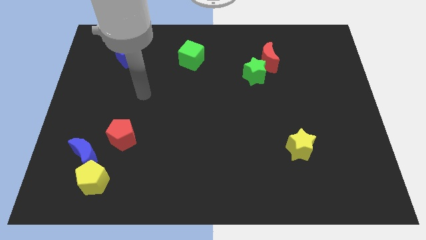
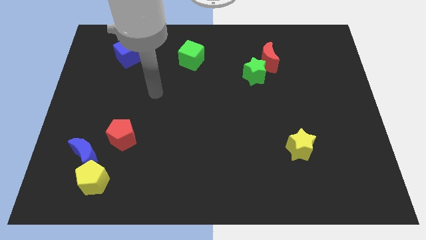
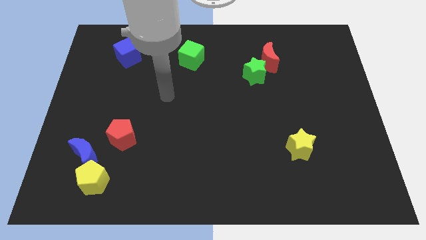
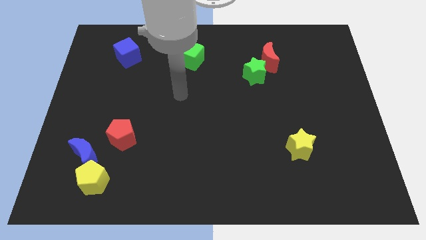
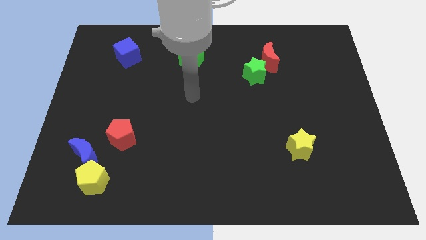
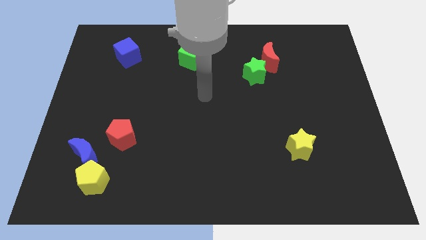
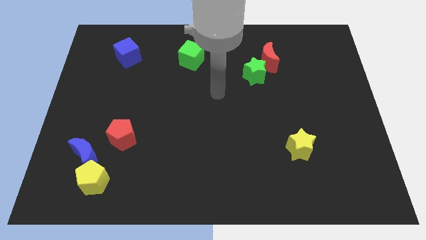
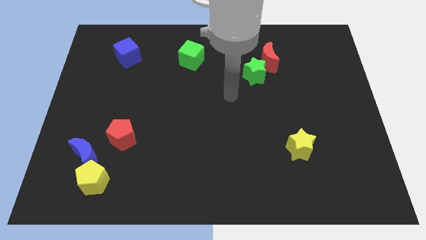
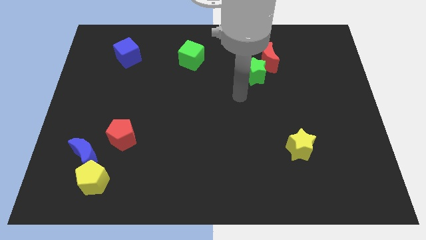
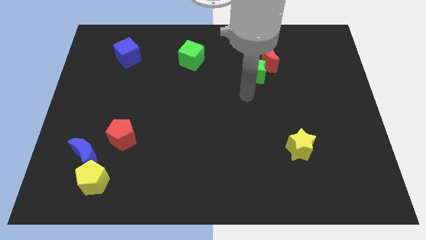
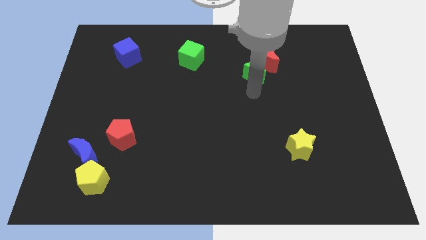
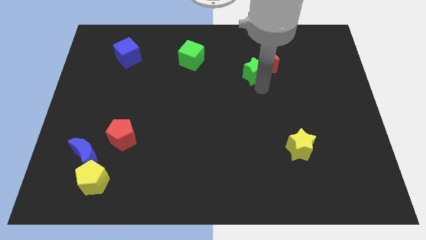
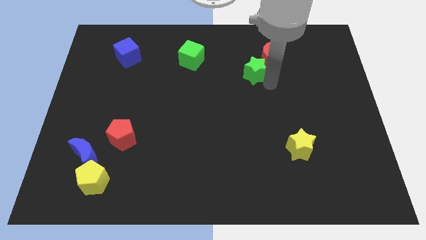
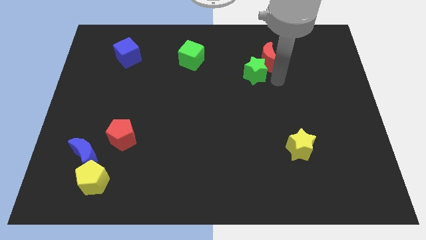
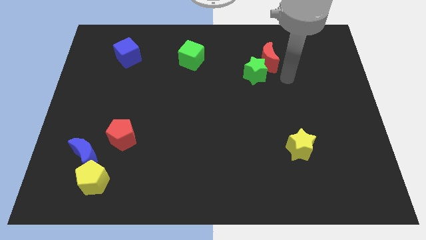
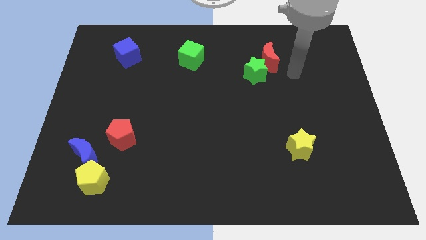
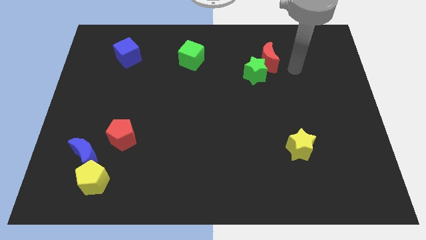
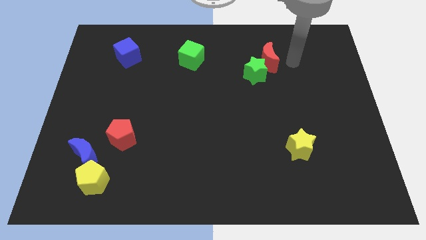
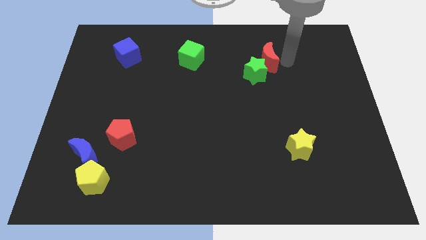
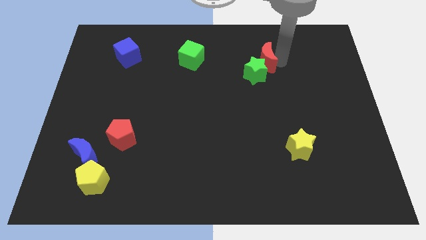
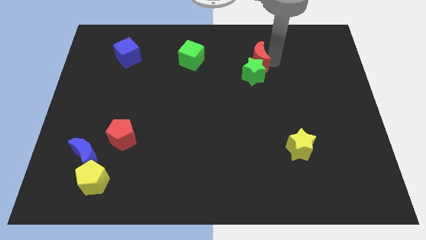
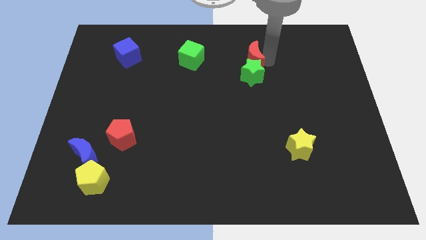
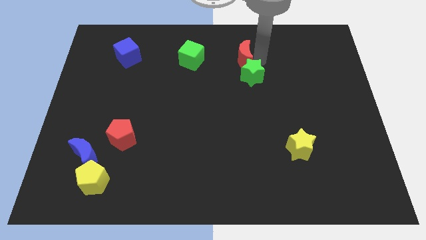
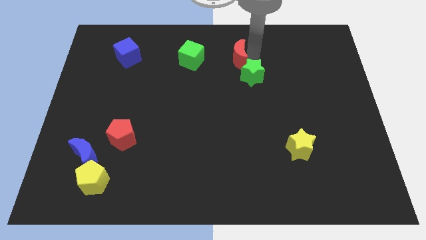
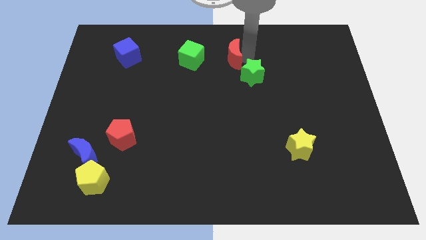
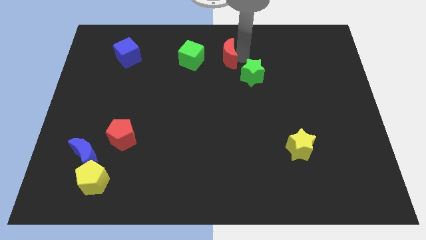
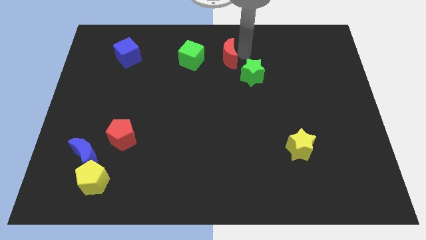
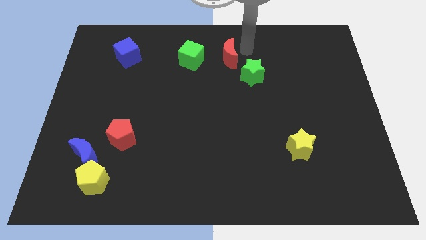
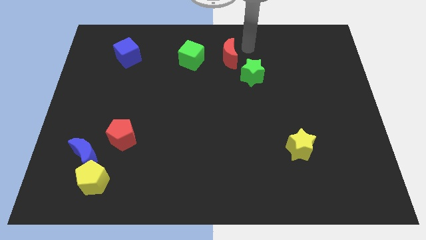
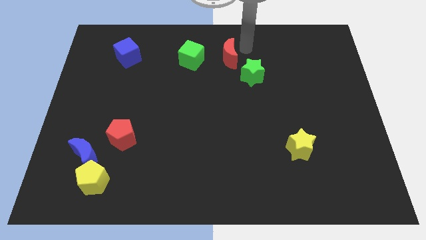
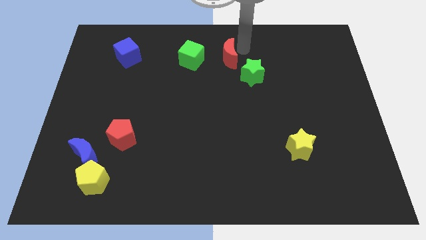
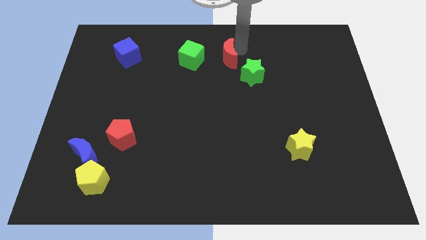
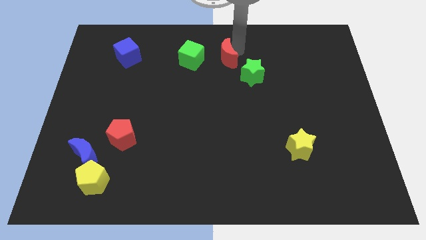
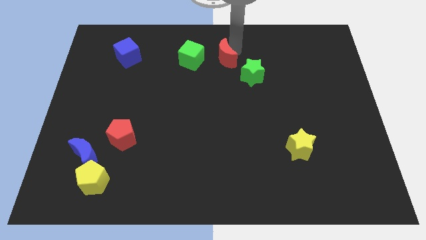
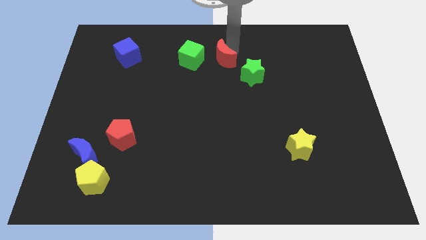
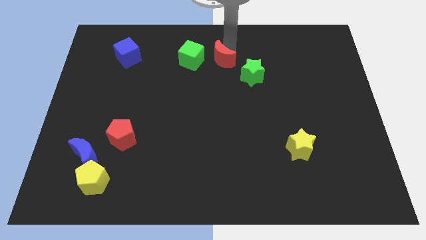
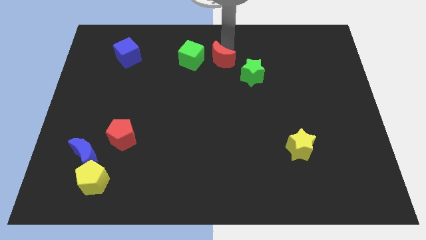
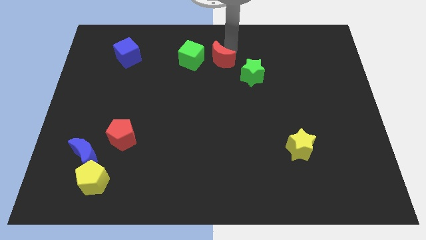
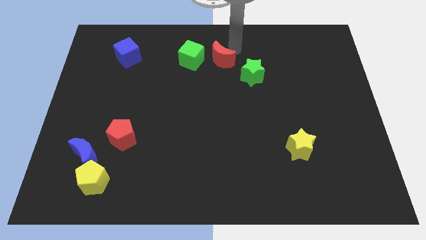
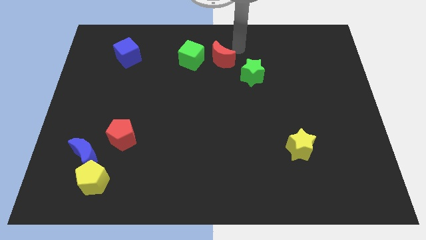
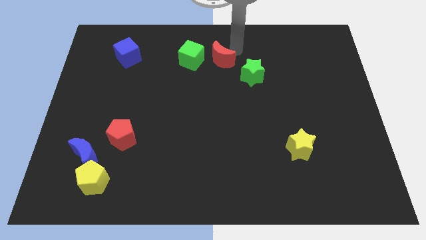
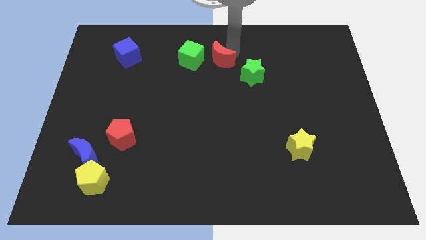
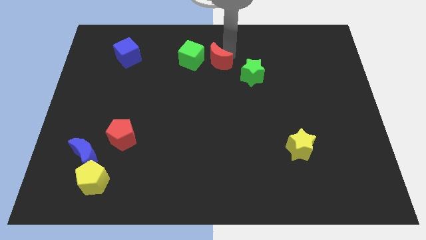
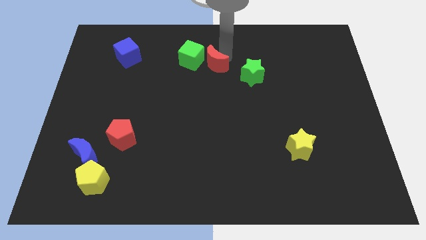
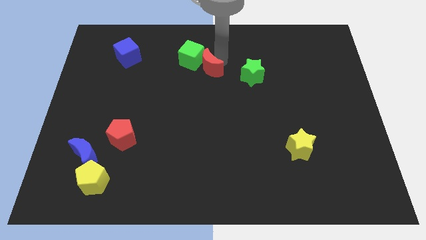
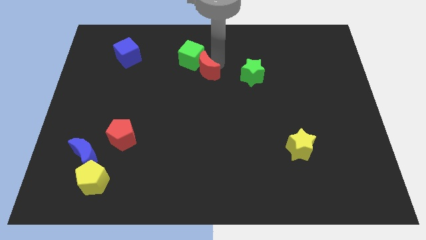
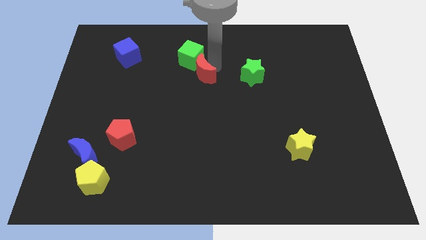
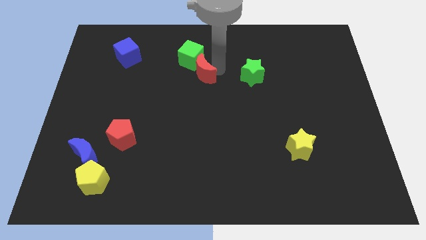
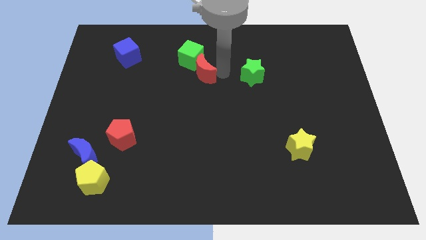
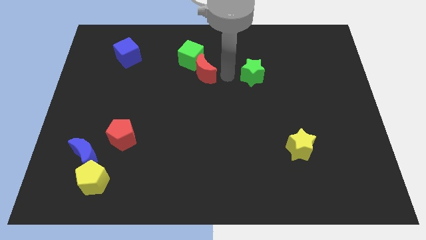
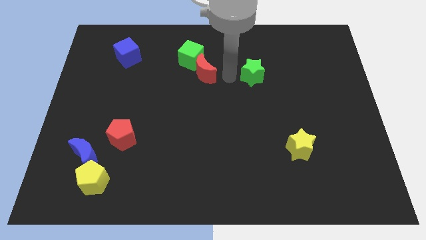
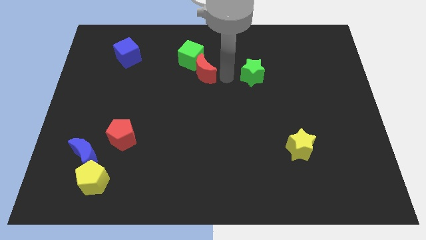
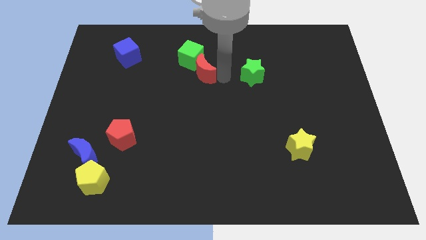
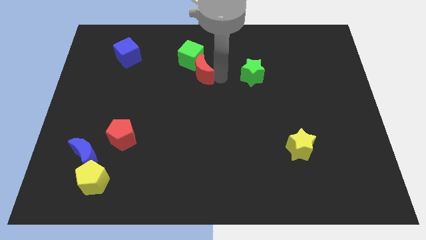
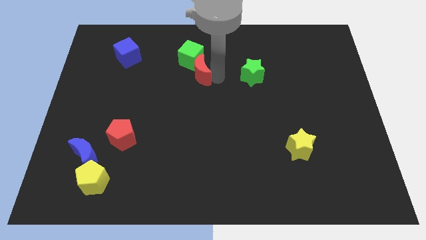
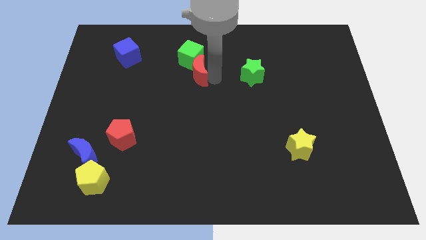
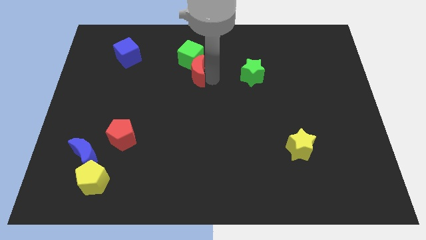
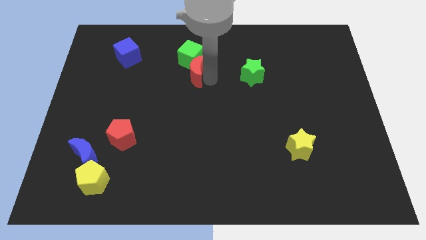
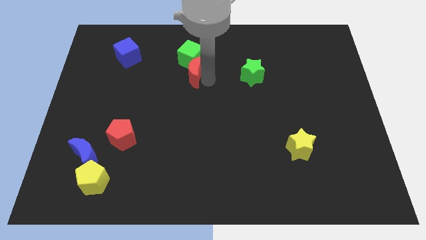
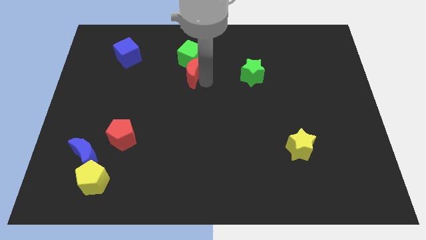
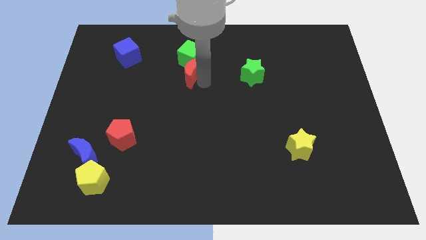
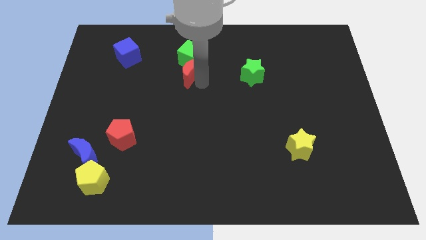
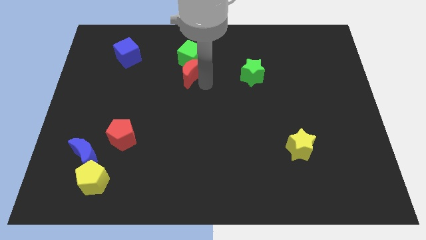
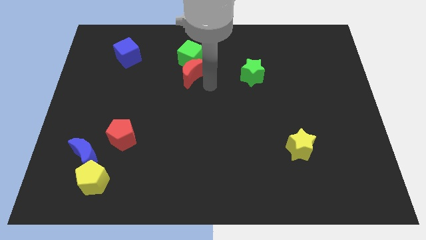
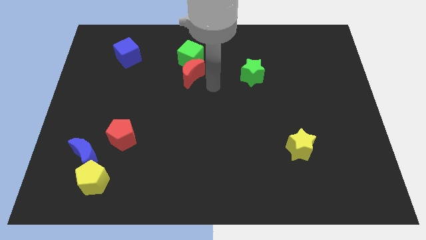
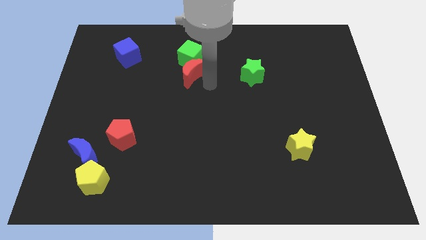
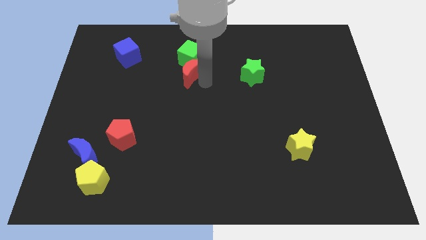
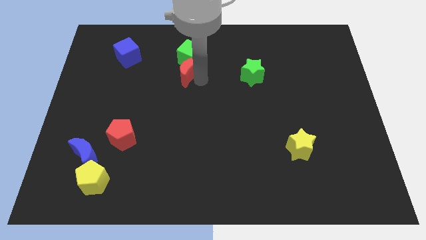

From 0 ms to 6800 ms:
slide the red moon left

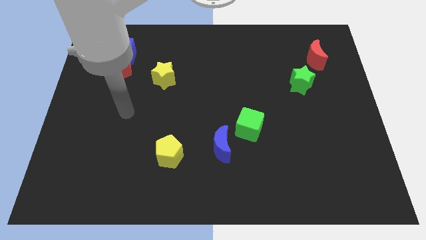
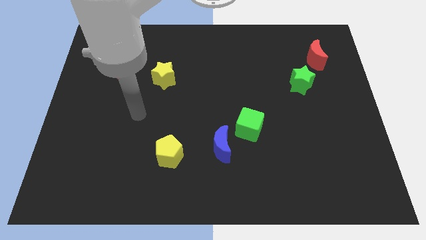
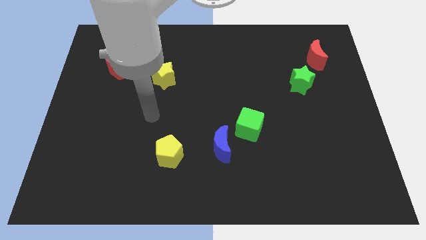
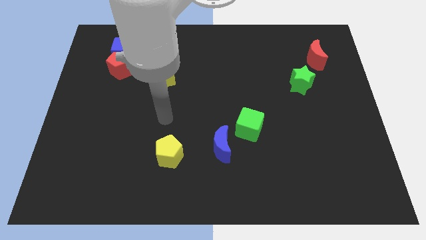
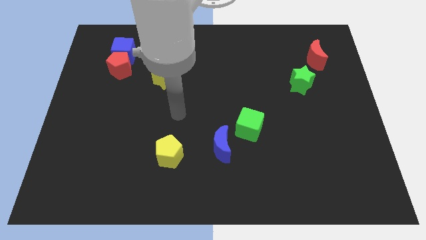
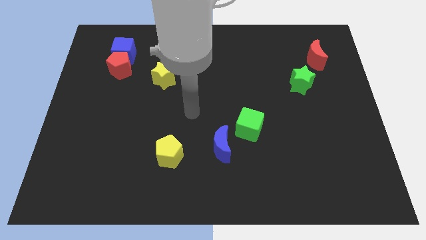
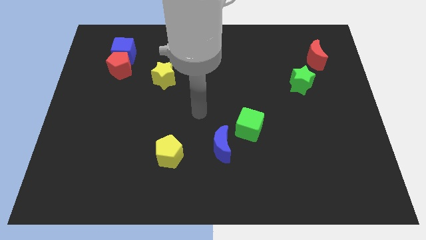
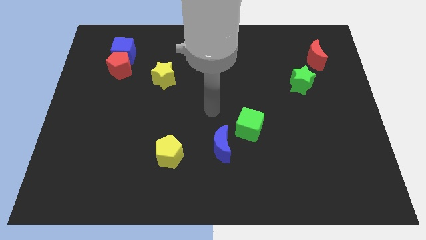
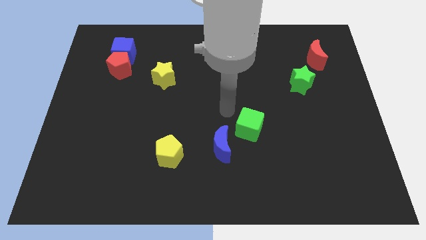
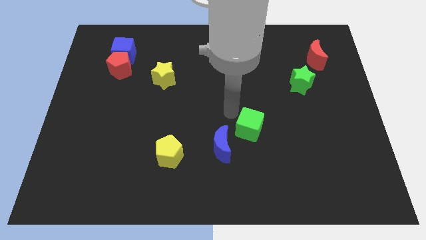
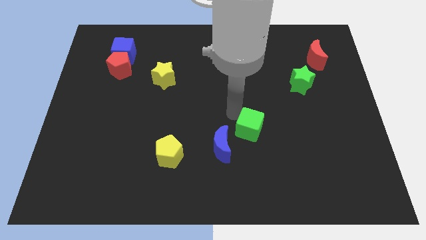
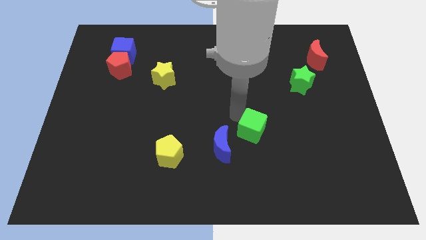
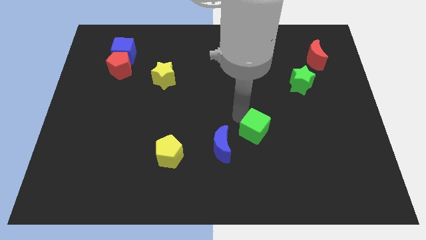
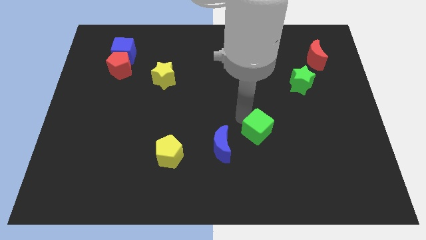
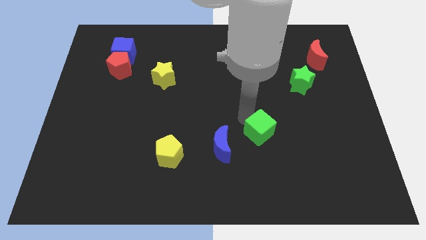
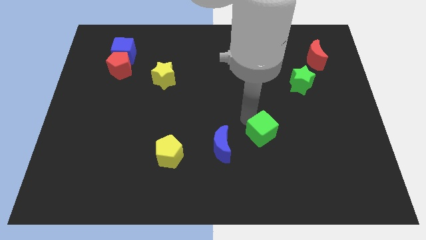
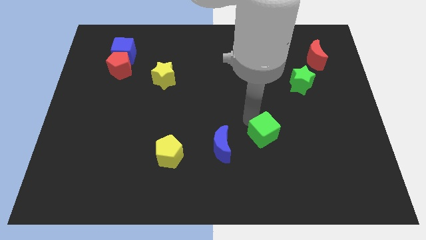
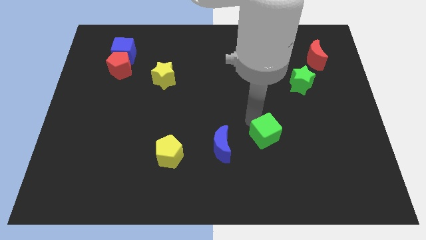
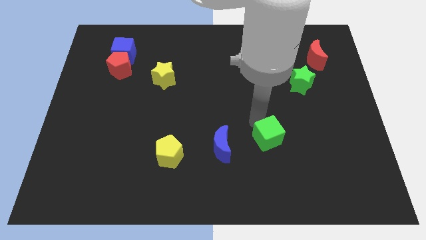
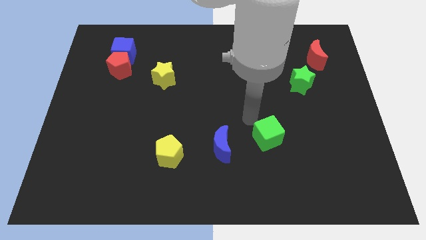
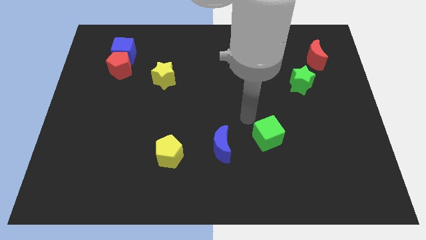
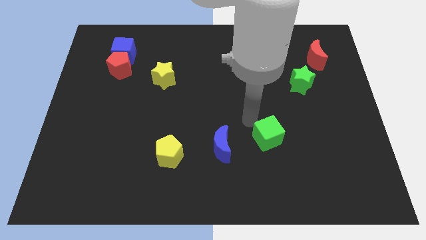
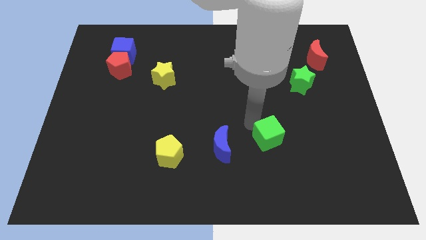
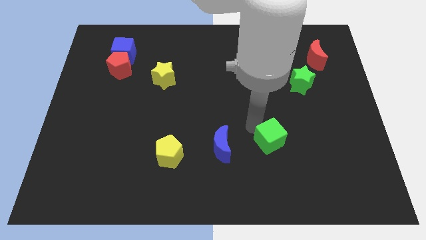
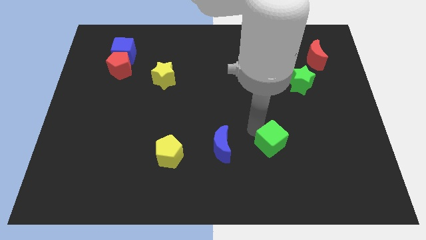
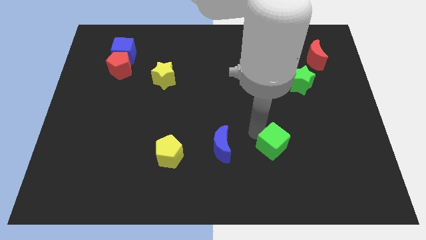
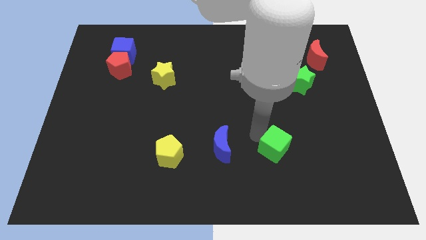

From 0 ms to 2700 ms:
slide the green cube slightly downwards and then right
